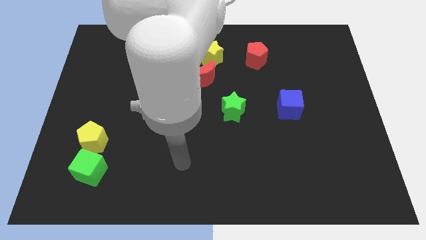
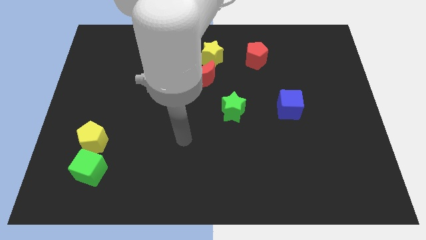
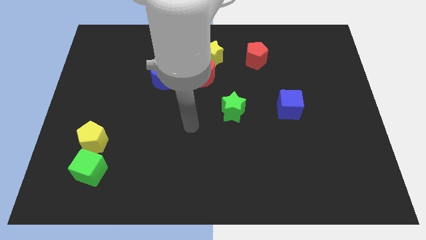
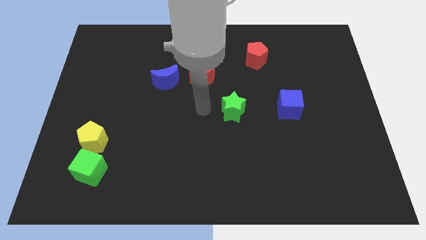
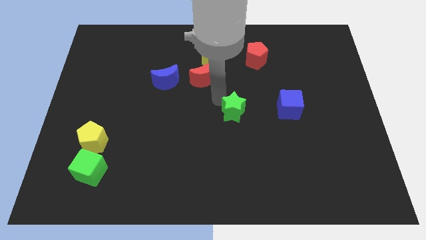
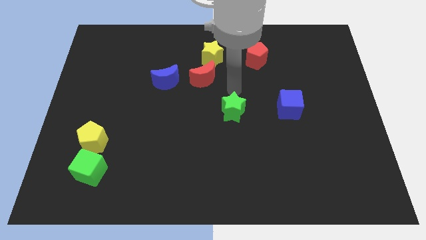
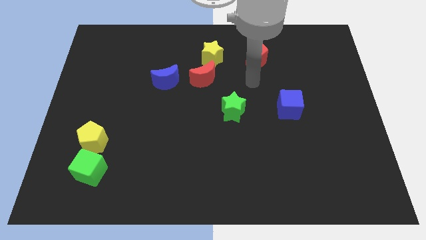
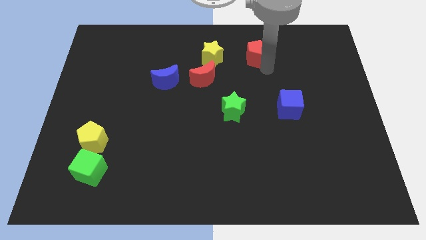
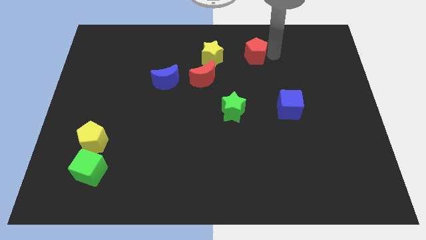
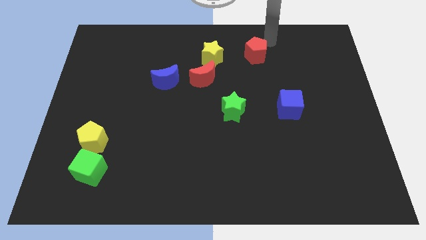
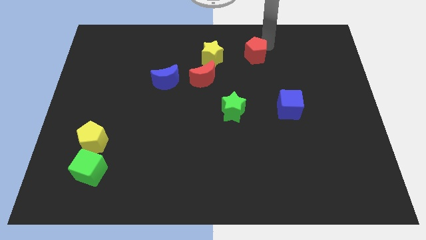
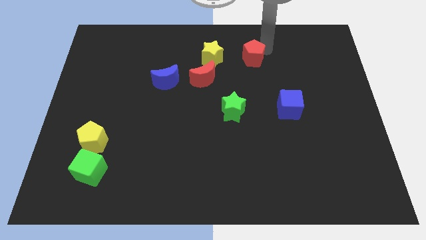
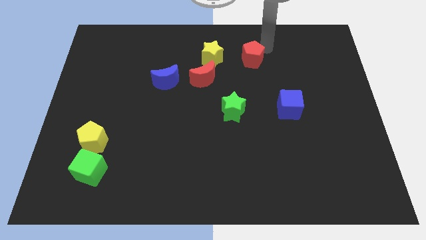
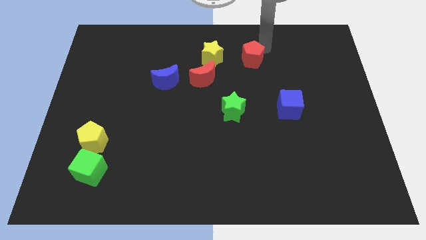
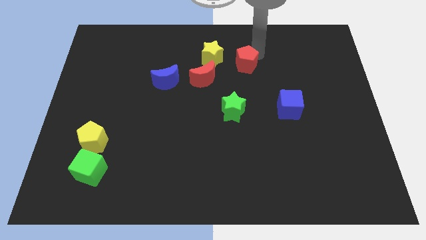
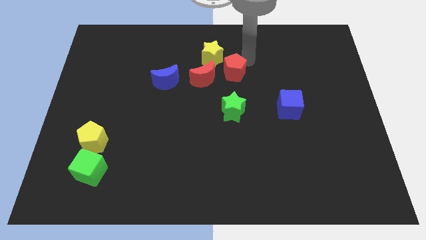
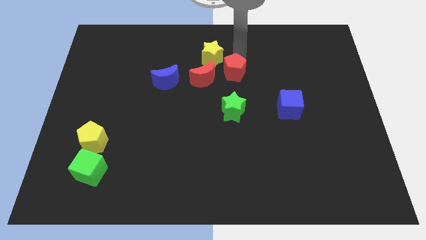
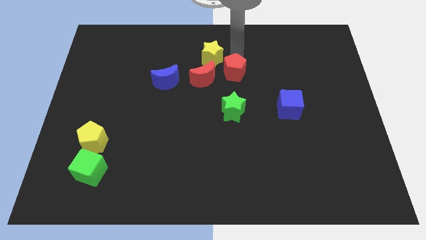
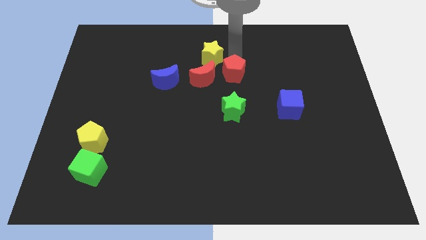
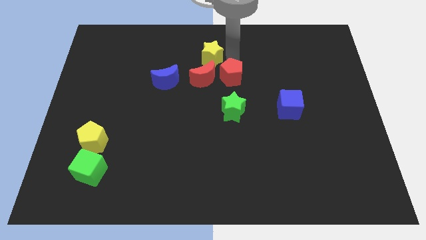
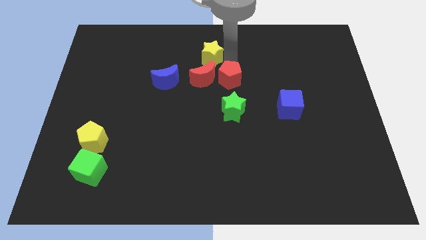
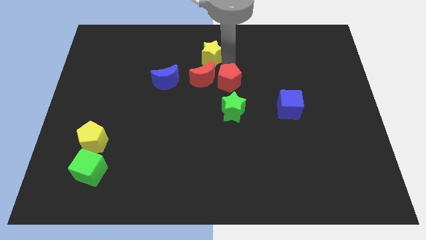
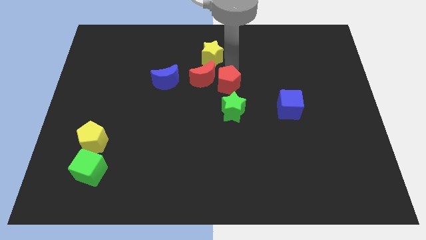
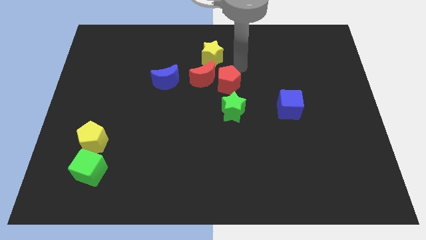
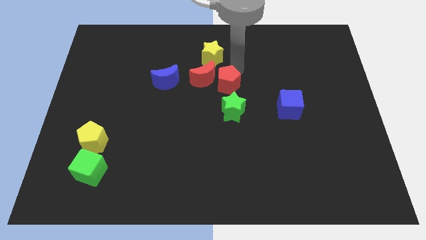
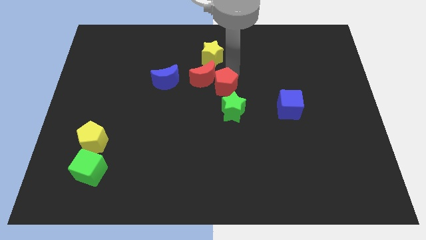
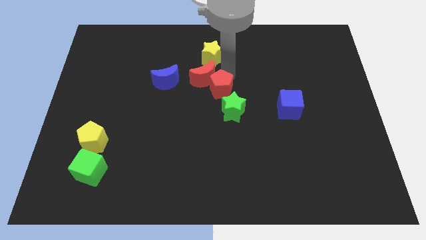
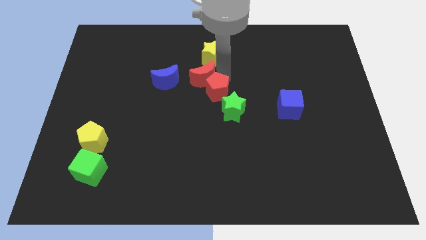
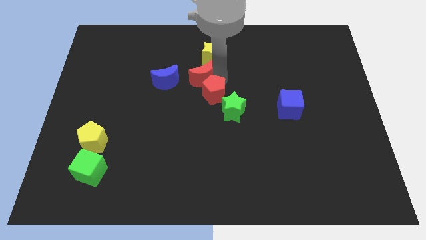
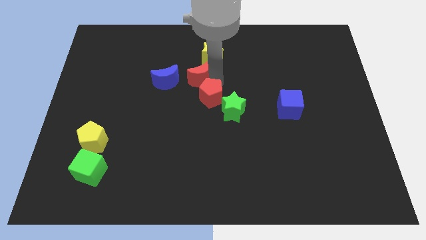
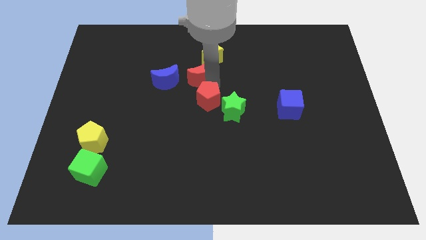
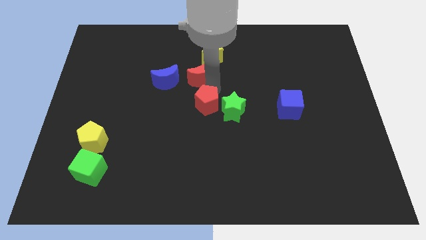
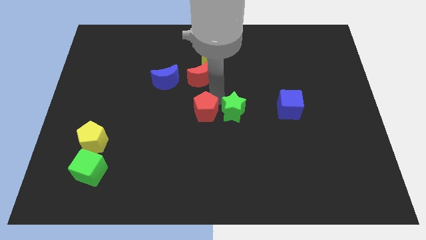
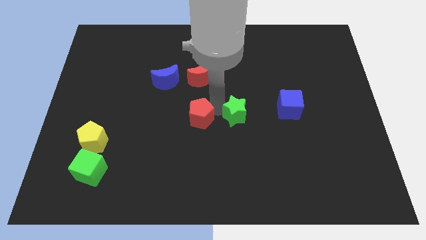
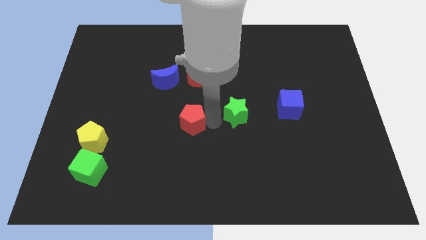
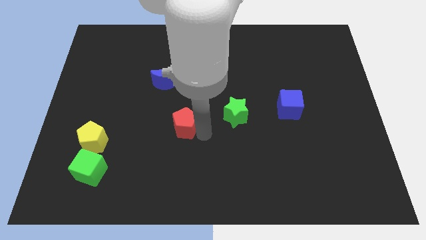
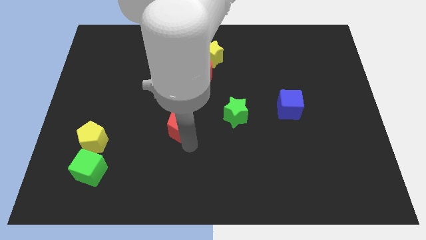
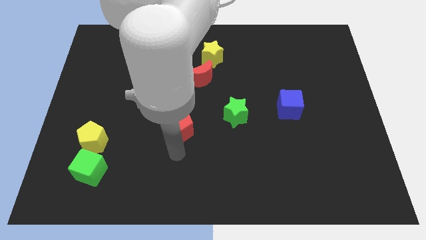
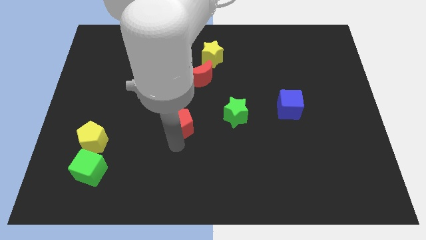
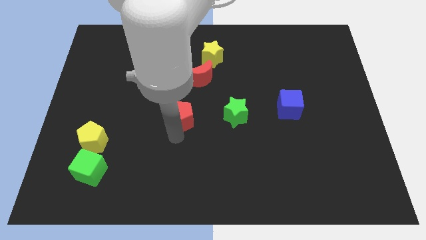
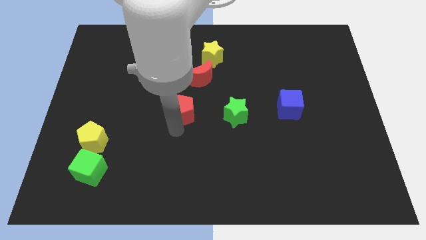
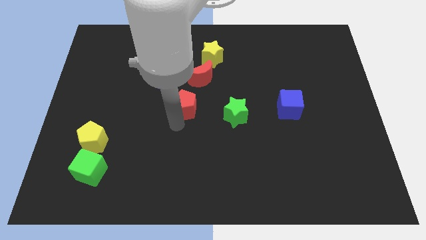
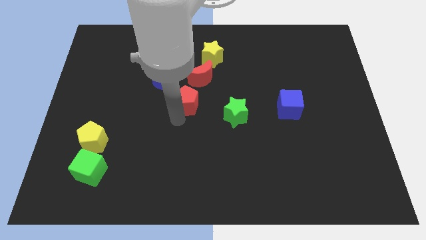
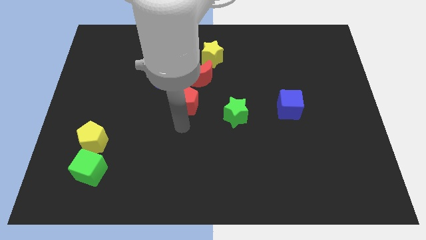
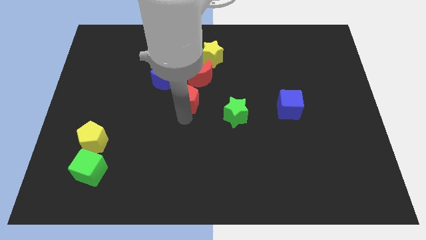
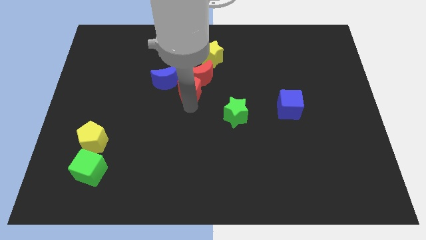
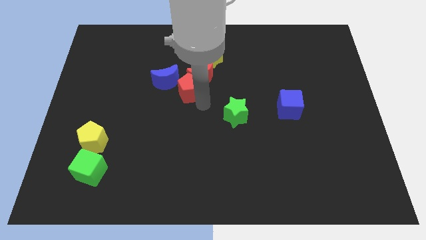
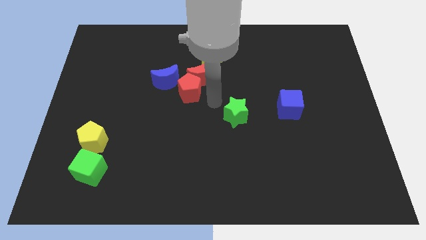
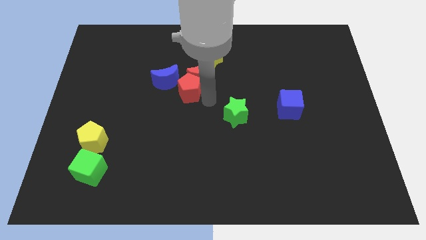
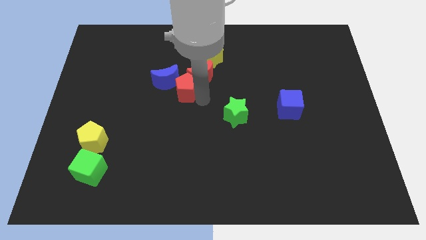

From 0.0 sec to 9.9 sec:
put the red pentagon next to the blue moon
